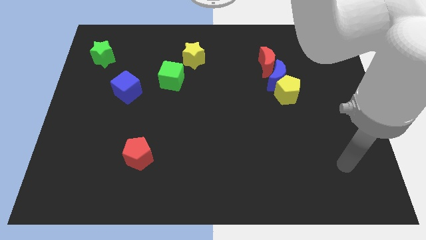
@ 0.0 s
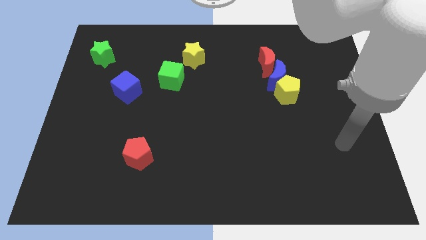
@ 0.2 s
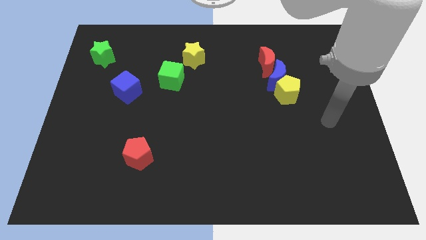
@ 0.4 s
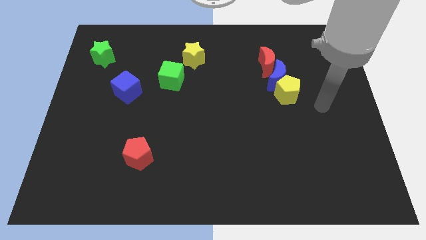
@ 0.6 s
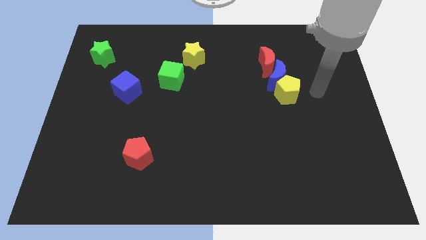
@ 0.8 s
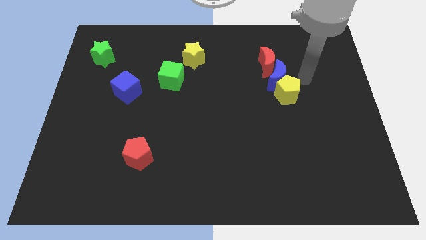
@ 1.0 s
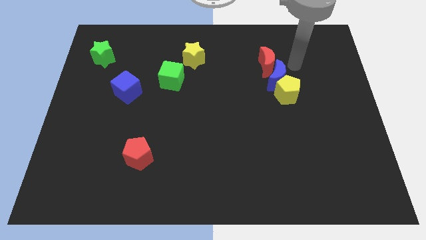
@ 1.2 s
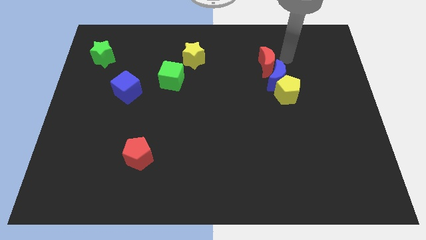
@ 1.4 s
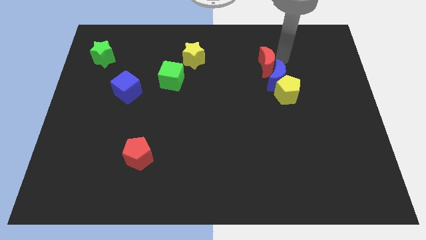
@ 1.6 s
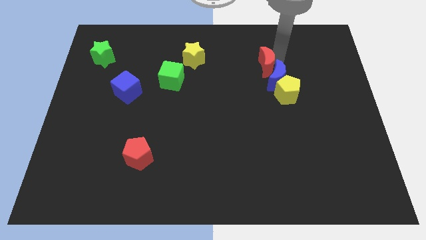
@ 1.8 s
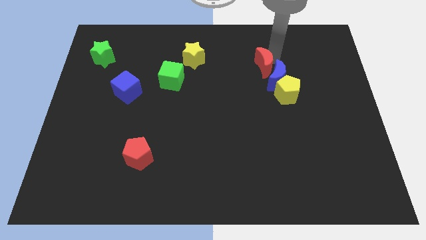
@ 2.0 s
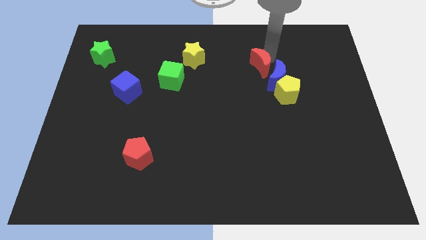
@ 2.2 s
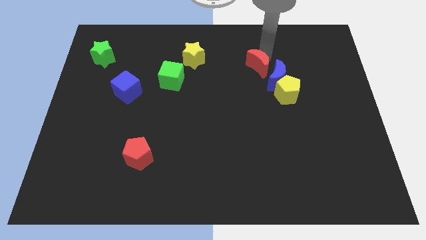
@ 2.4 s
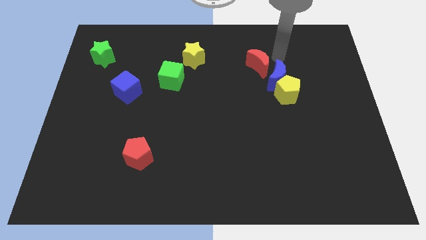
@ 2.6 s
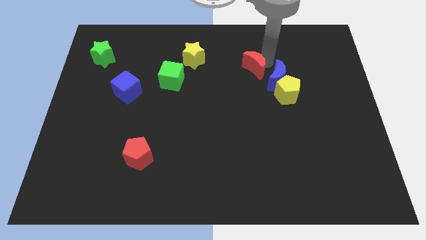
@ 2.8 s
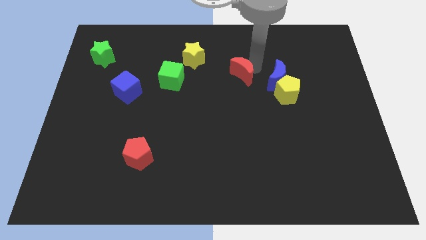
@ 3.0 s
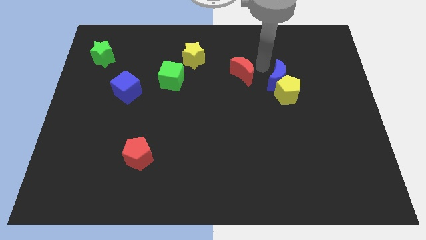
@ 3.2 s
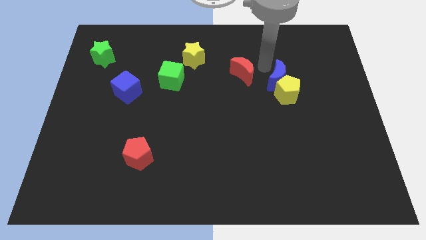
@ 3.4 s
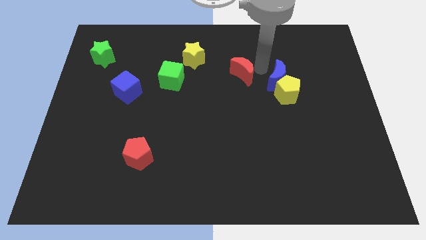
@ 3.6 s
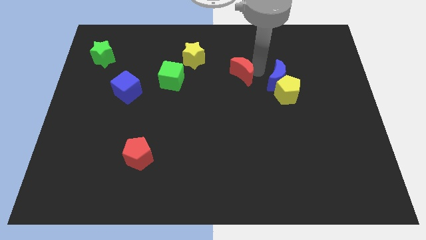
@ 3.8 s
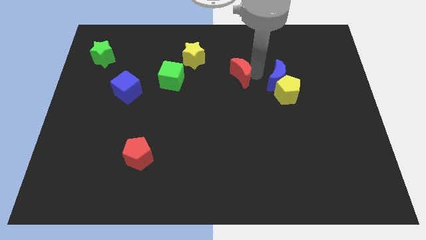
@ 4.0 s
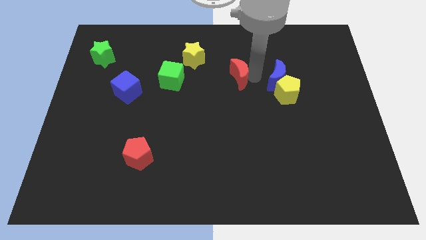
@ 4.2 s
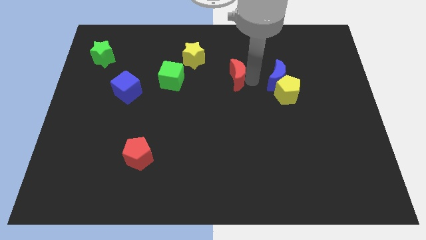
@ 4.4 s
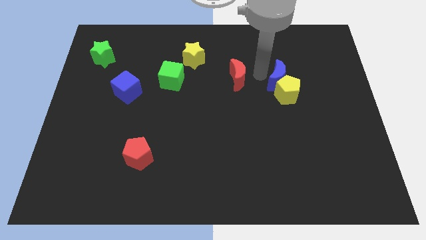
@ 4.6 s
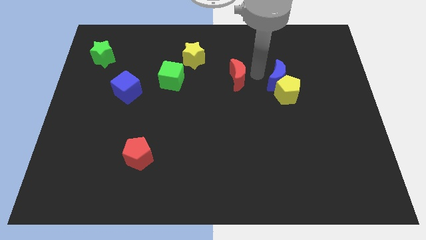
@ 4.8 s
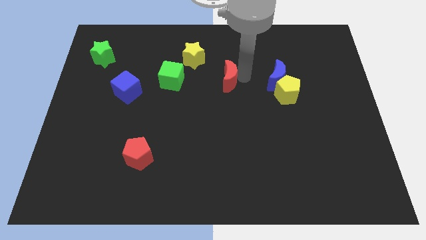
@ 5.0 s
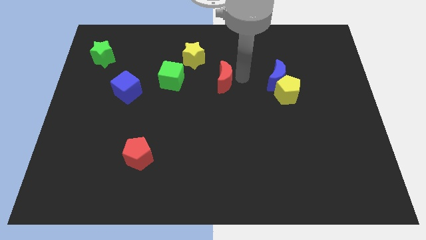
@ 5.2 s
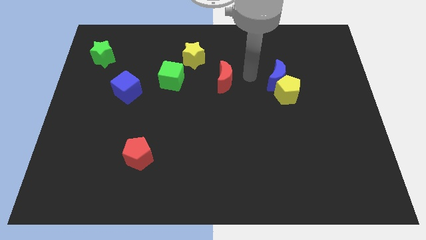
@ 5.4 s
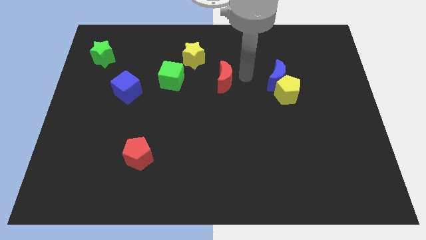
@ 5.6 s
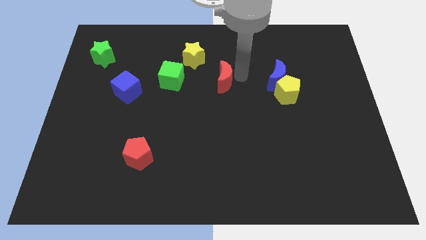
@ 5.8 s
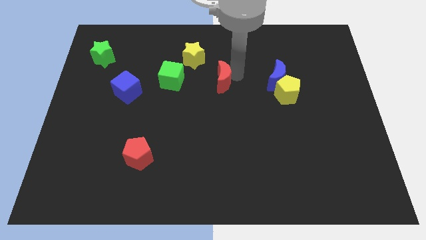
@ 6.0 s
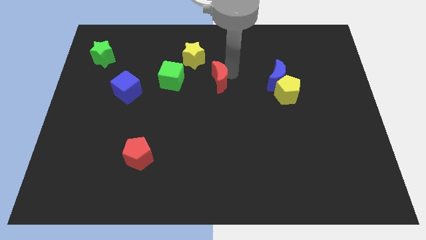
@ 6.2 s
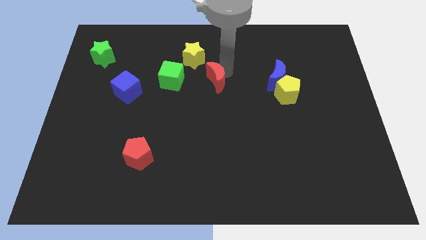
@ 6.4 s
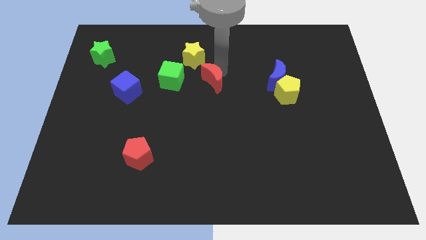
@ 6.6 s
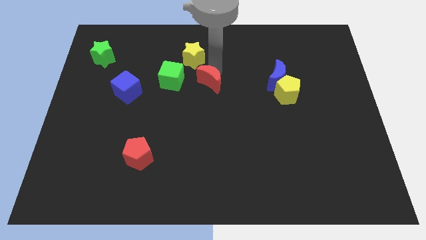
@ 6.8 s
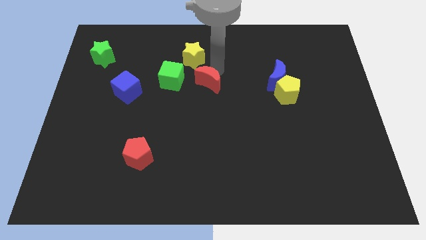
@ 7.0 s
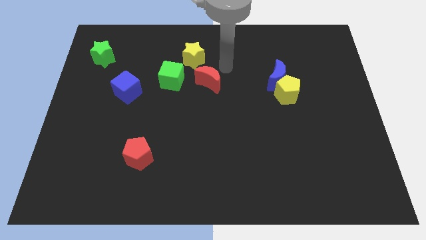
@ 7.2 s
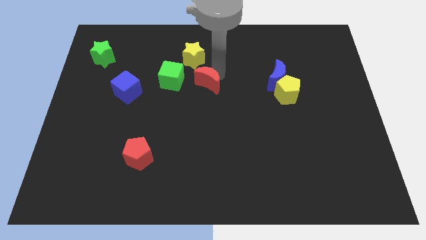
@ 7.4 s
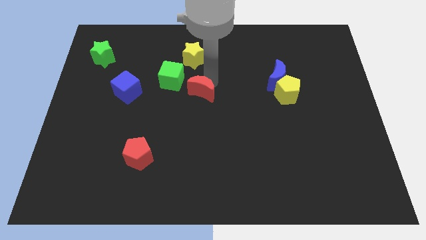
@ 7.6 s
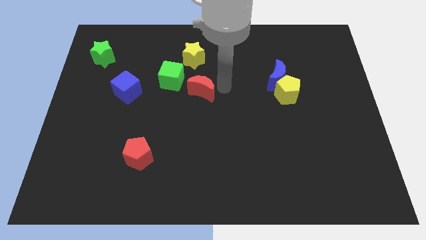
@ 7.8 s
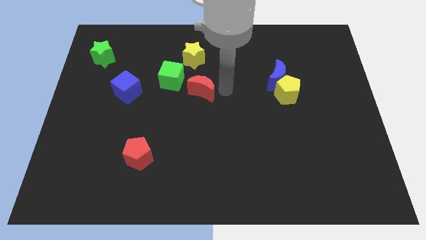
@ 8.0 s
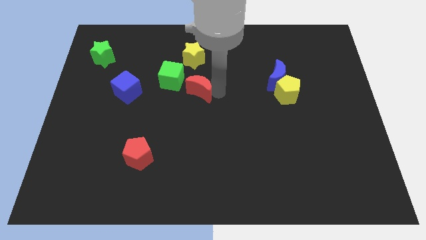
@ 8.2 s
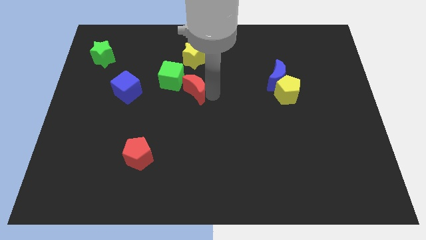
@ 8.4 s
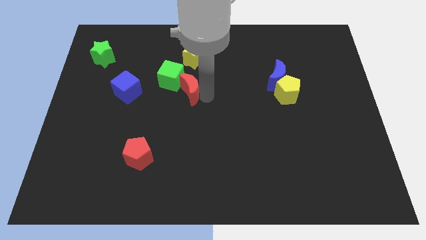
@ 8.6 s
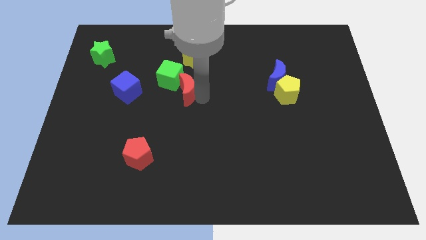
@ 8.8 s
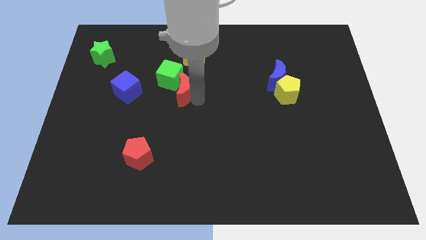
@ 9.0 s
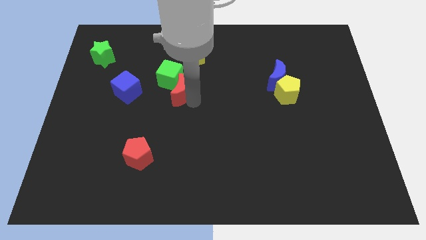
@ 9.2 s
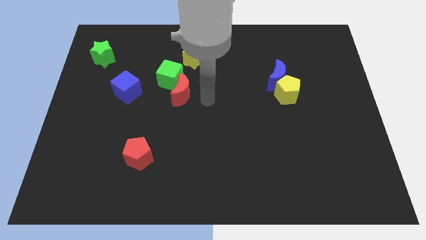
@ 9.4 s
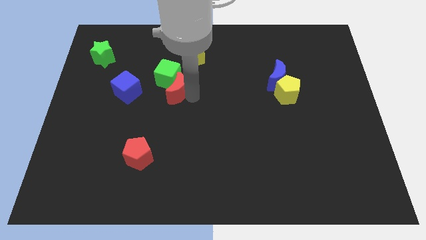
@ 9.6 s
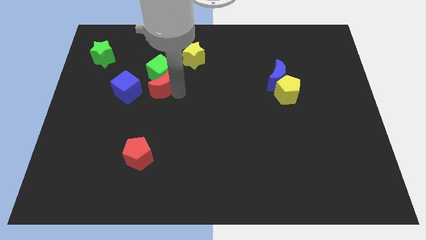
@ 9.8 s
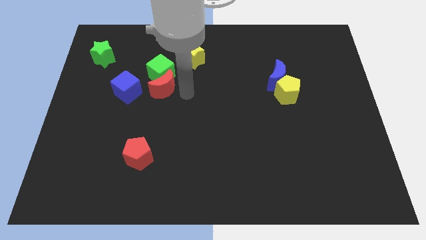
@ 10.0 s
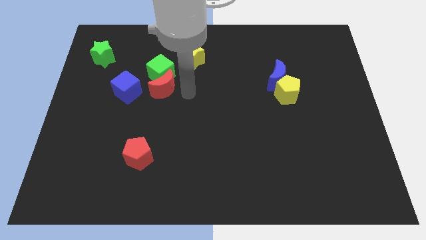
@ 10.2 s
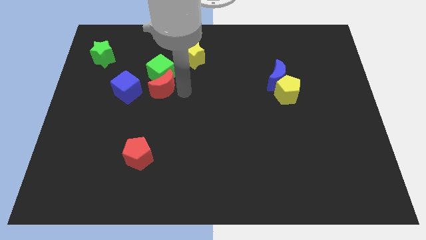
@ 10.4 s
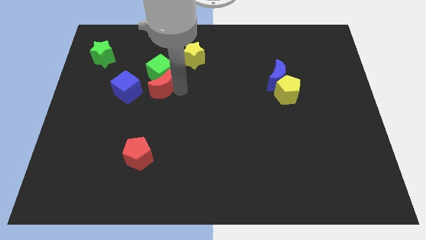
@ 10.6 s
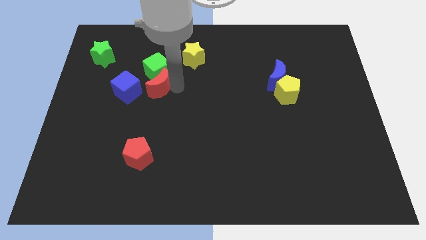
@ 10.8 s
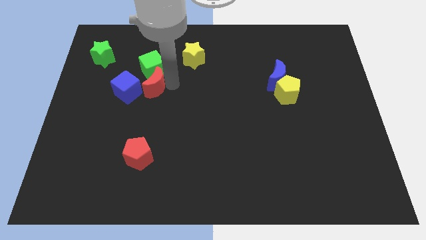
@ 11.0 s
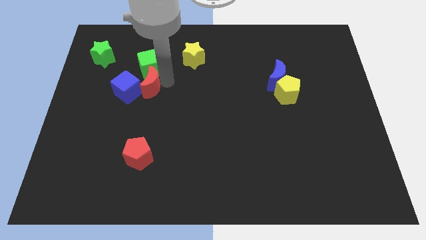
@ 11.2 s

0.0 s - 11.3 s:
slide the red moon to the blue cube

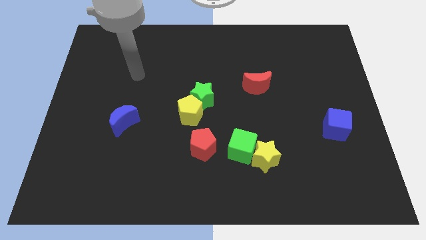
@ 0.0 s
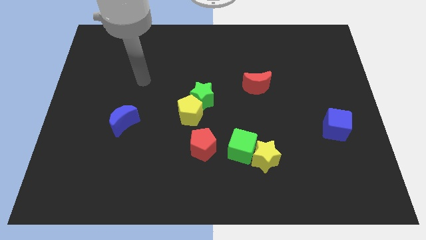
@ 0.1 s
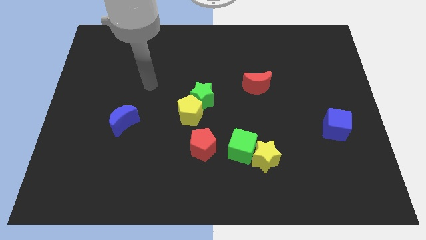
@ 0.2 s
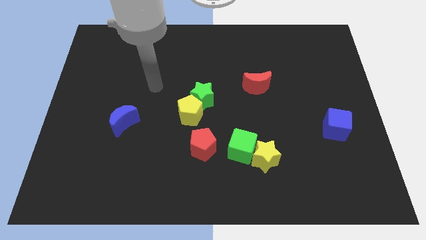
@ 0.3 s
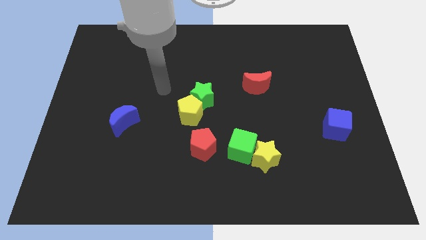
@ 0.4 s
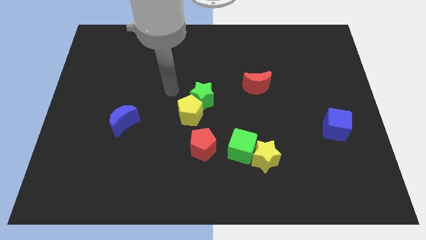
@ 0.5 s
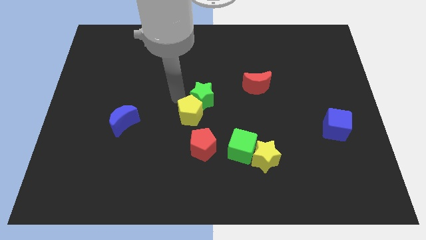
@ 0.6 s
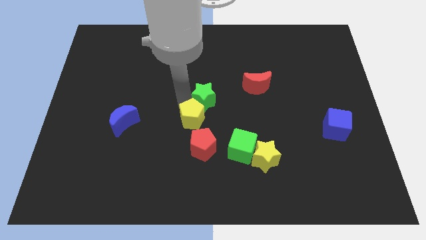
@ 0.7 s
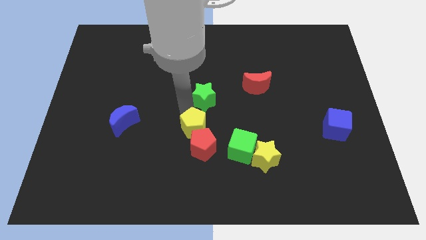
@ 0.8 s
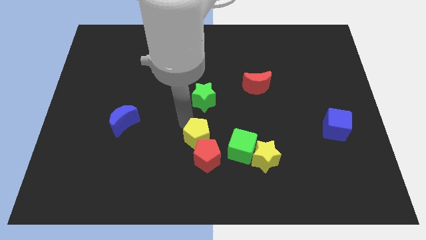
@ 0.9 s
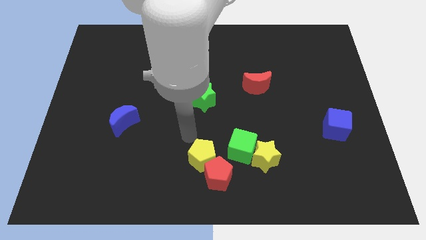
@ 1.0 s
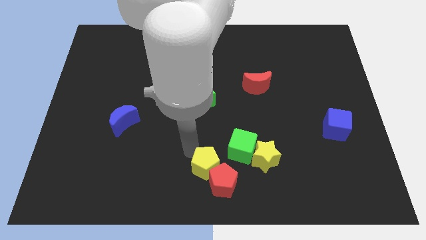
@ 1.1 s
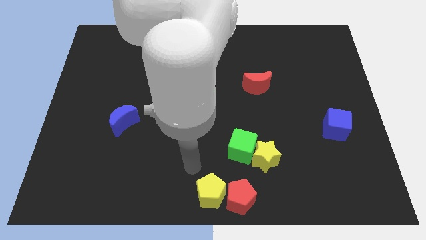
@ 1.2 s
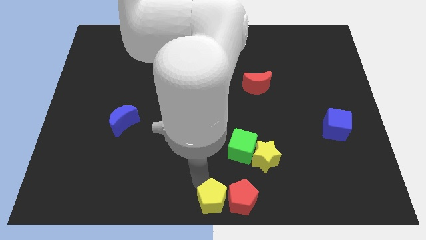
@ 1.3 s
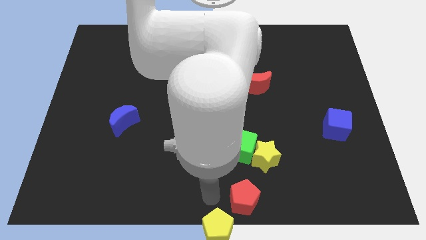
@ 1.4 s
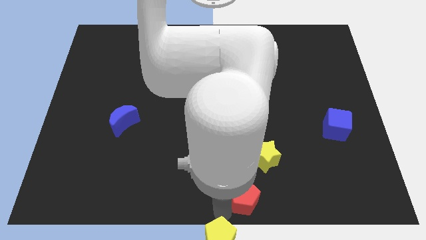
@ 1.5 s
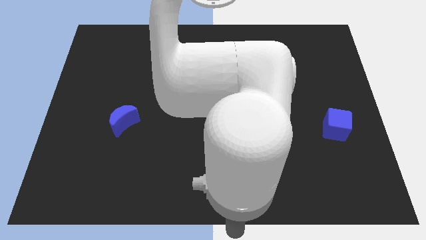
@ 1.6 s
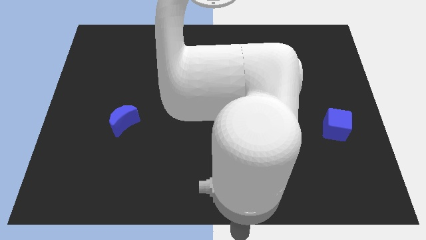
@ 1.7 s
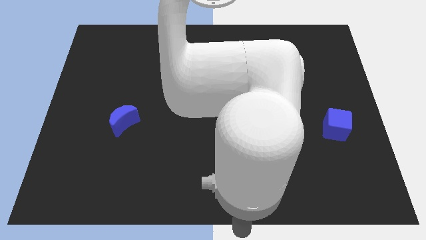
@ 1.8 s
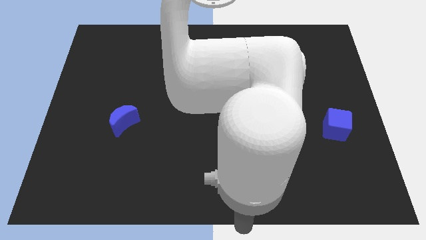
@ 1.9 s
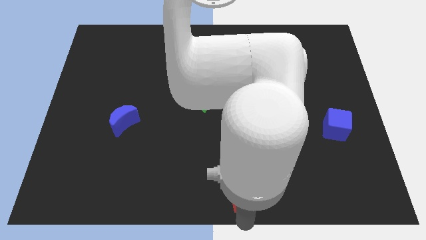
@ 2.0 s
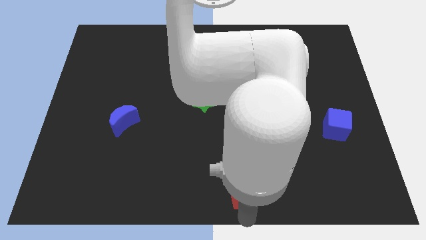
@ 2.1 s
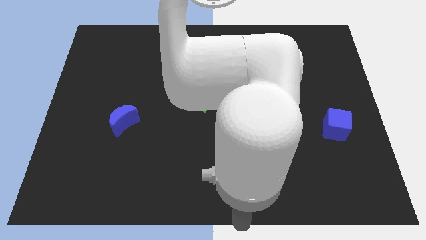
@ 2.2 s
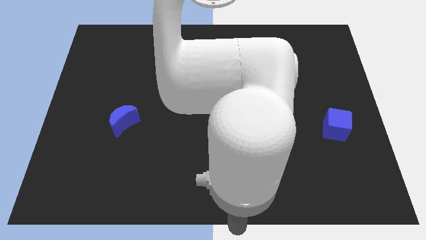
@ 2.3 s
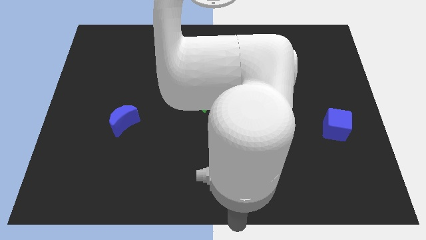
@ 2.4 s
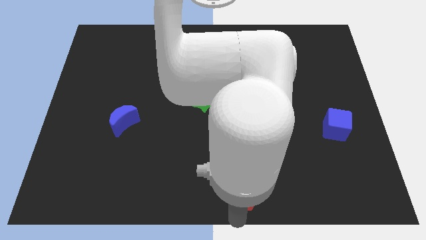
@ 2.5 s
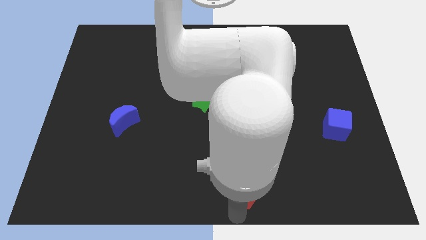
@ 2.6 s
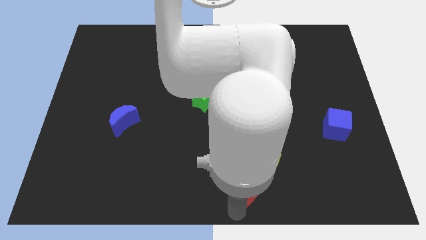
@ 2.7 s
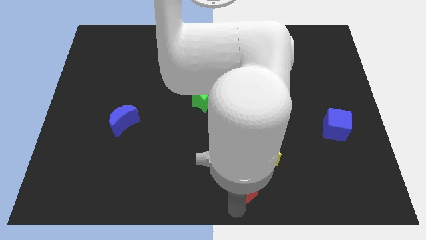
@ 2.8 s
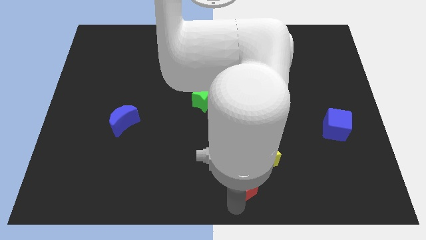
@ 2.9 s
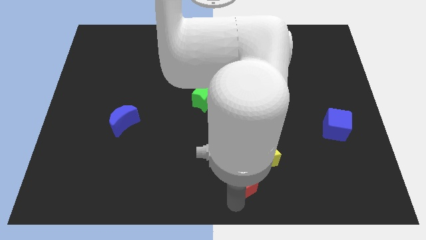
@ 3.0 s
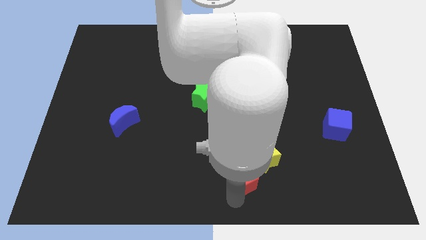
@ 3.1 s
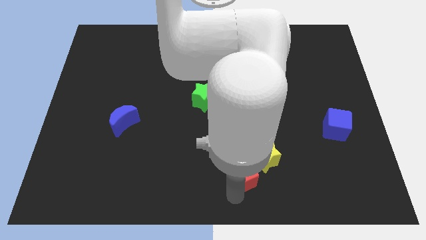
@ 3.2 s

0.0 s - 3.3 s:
move the red pentagon next to the yellow star
